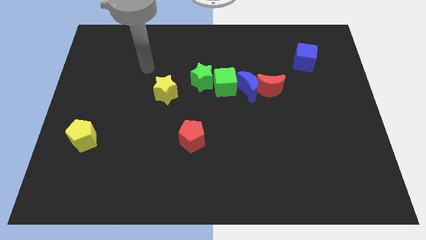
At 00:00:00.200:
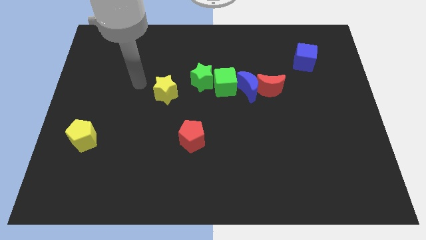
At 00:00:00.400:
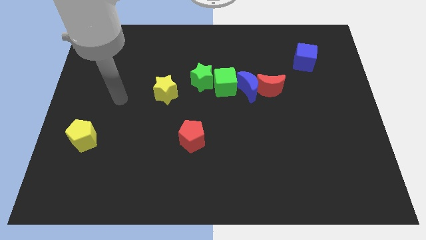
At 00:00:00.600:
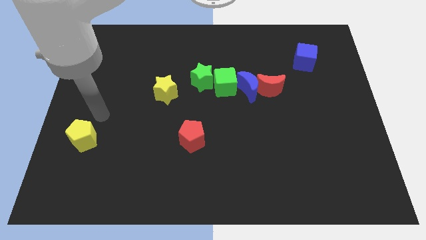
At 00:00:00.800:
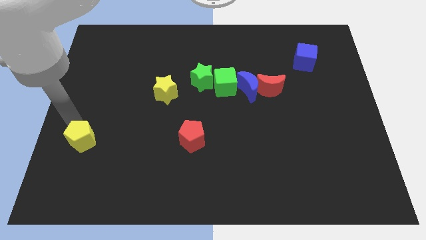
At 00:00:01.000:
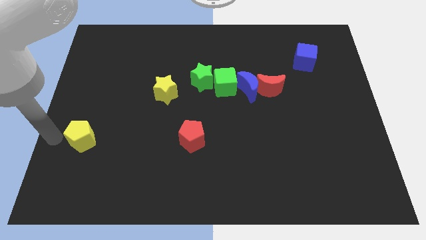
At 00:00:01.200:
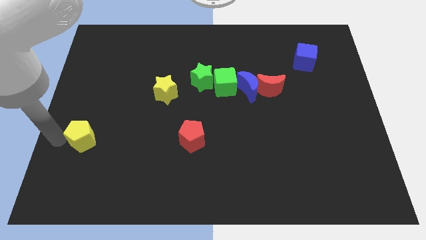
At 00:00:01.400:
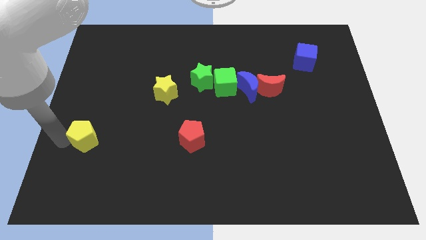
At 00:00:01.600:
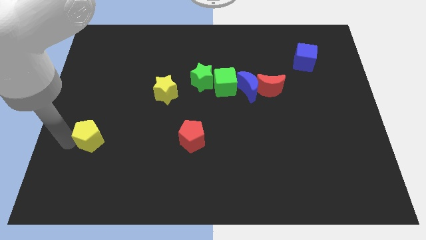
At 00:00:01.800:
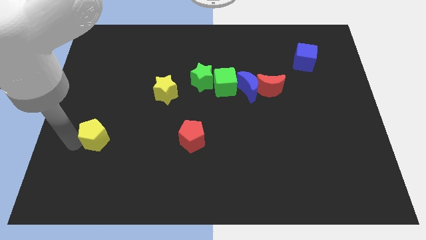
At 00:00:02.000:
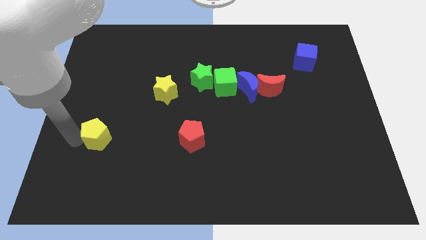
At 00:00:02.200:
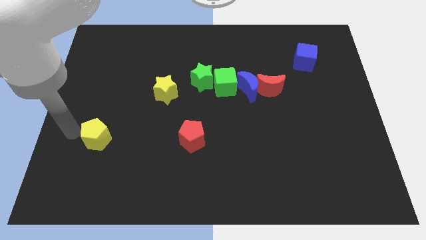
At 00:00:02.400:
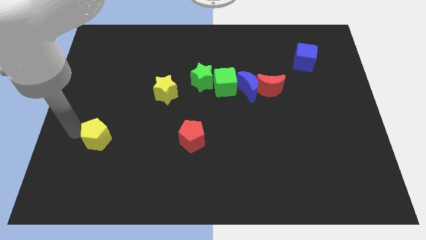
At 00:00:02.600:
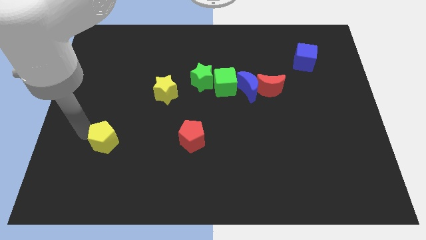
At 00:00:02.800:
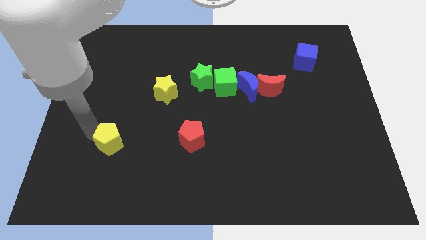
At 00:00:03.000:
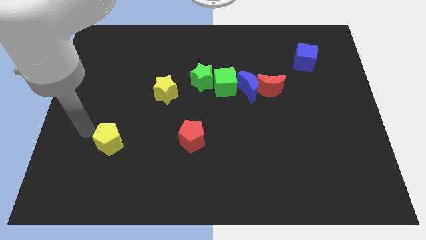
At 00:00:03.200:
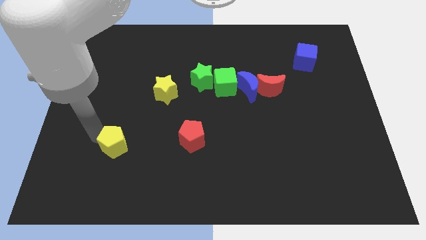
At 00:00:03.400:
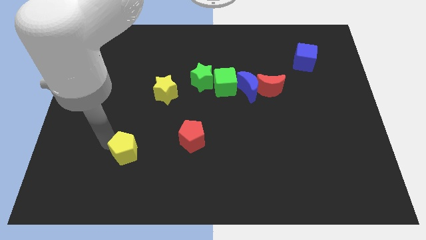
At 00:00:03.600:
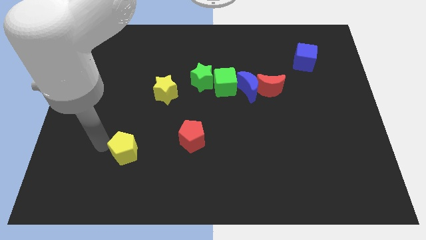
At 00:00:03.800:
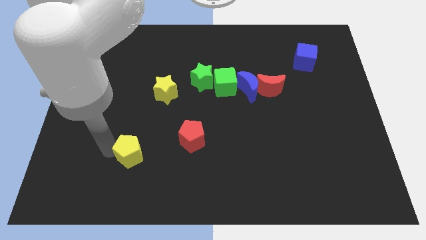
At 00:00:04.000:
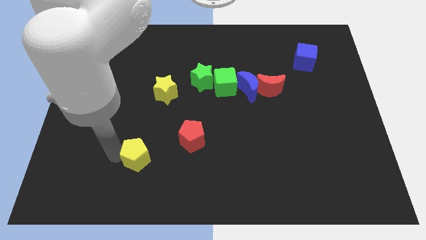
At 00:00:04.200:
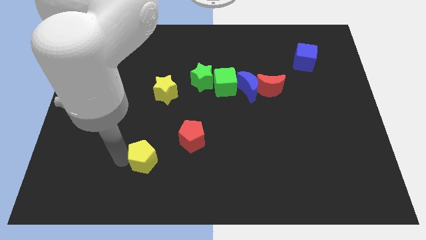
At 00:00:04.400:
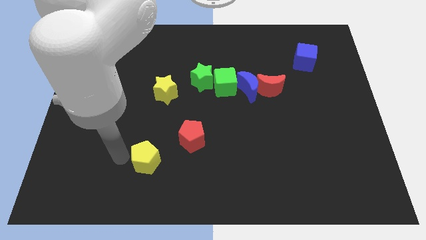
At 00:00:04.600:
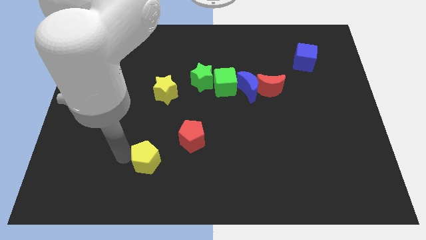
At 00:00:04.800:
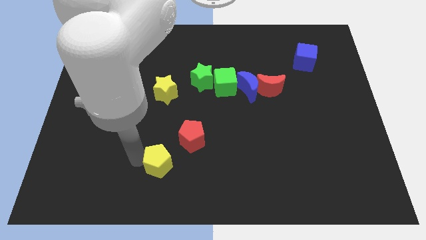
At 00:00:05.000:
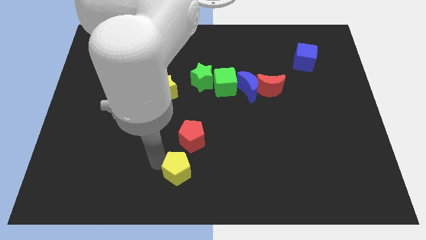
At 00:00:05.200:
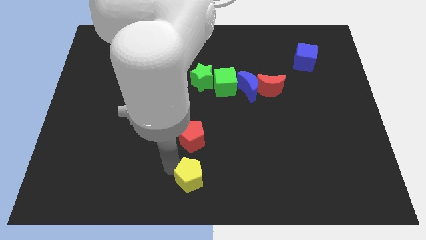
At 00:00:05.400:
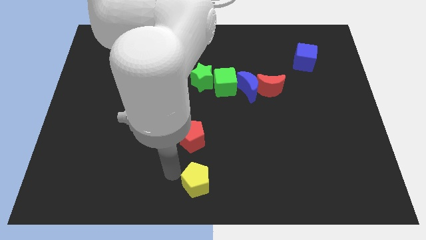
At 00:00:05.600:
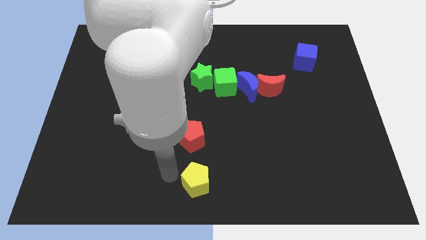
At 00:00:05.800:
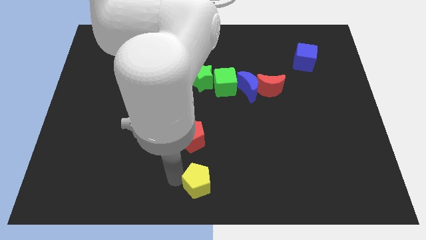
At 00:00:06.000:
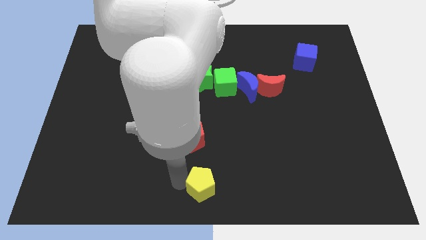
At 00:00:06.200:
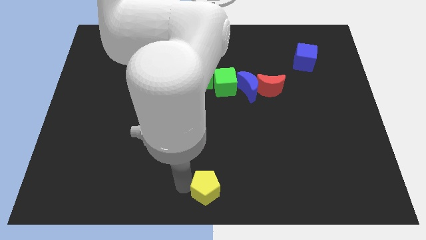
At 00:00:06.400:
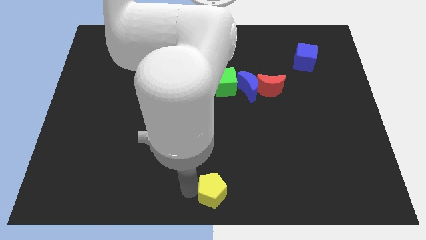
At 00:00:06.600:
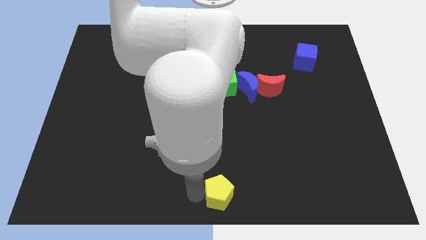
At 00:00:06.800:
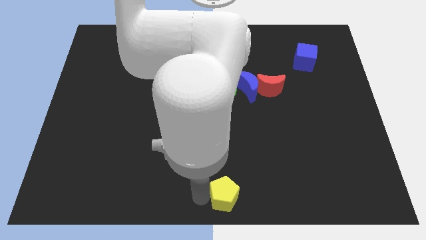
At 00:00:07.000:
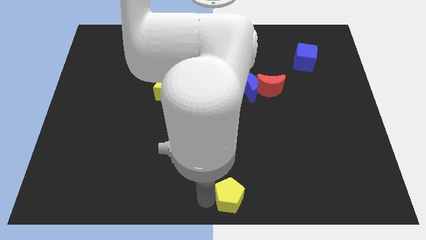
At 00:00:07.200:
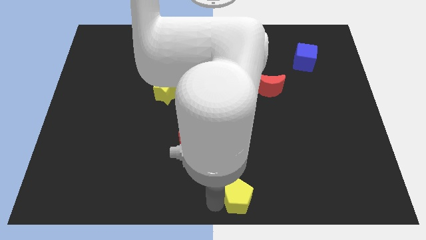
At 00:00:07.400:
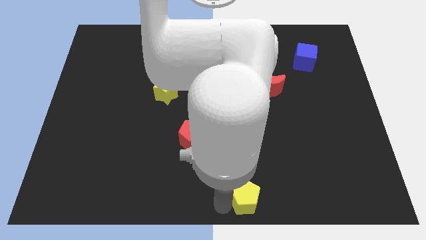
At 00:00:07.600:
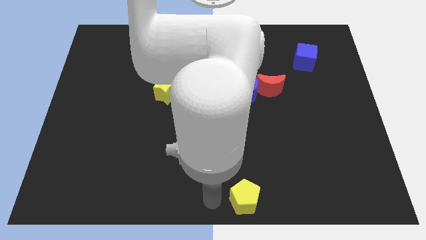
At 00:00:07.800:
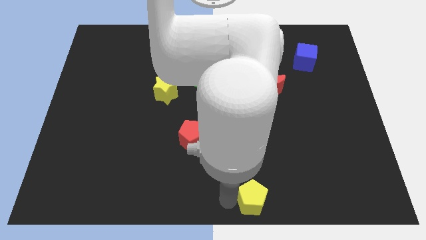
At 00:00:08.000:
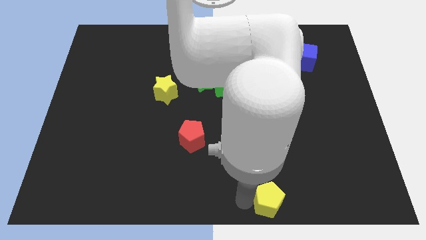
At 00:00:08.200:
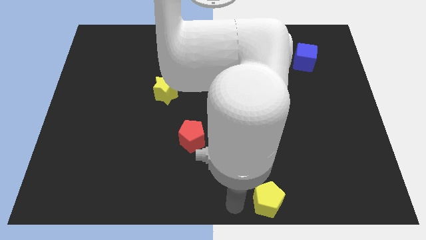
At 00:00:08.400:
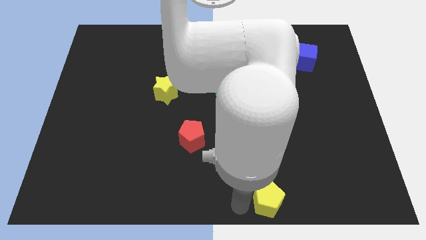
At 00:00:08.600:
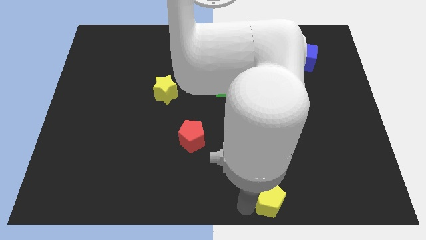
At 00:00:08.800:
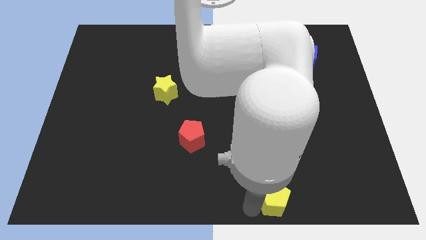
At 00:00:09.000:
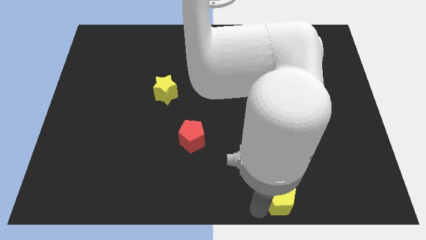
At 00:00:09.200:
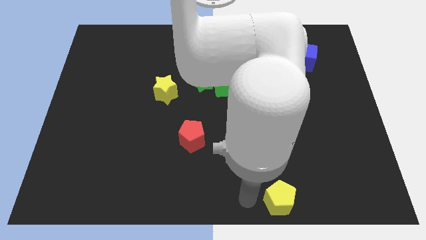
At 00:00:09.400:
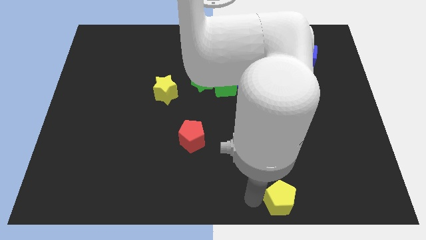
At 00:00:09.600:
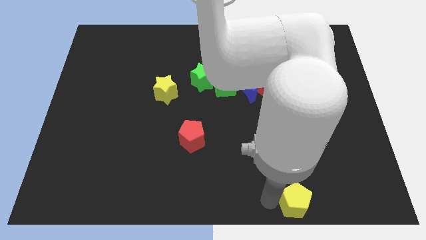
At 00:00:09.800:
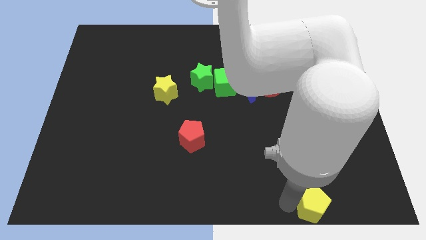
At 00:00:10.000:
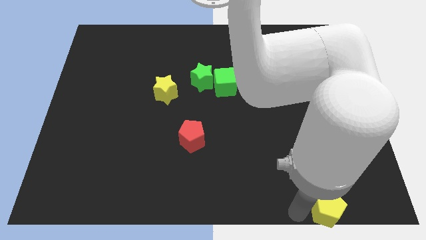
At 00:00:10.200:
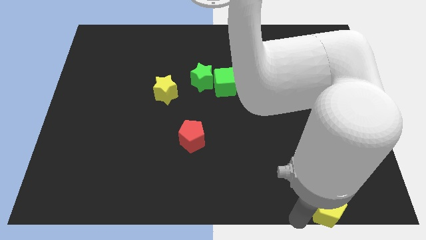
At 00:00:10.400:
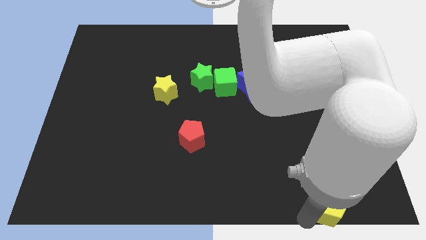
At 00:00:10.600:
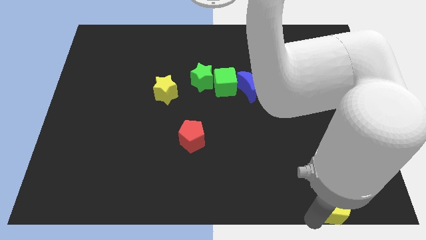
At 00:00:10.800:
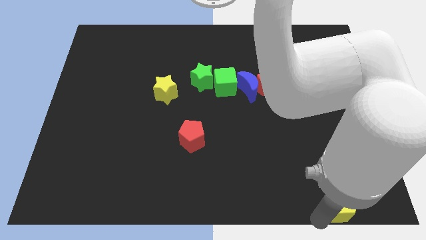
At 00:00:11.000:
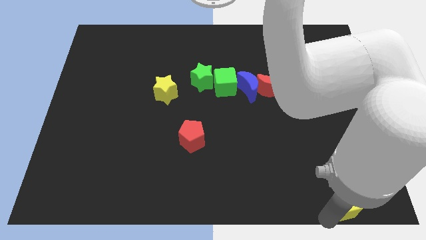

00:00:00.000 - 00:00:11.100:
push the yellow pentagon to the bottom right of the board

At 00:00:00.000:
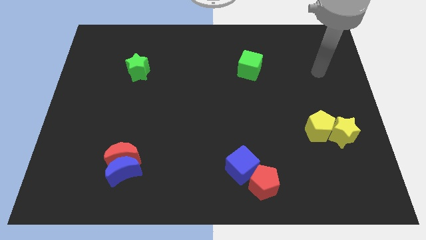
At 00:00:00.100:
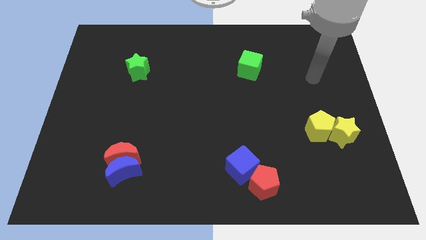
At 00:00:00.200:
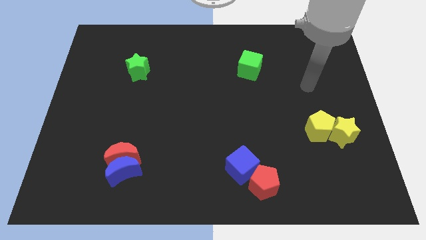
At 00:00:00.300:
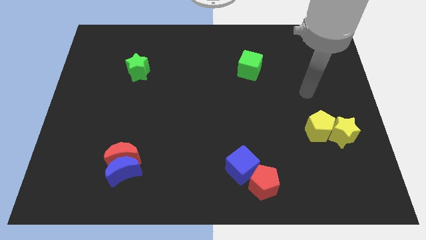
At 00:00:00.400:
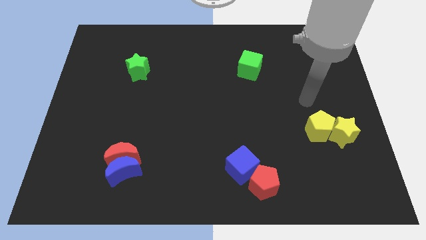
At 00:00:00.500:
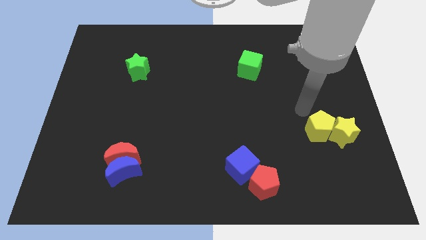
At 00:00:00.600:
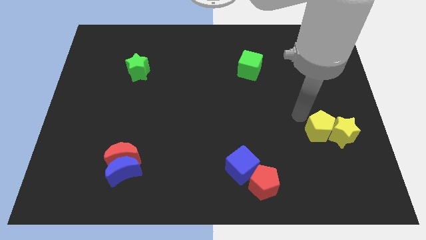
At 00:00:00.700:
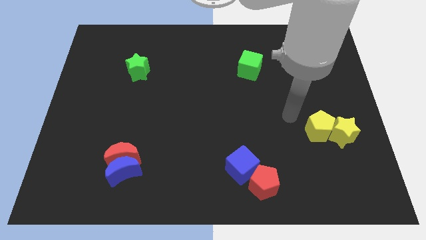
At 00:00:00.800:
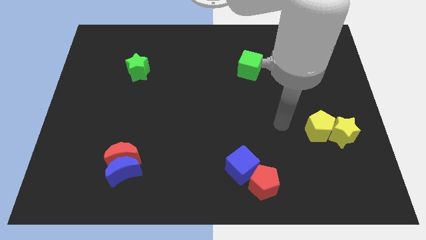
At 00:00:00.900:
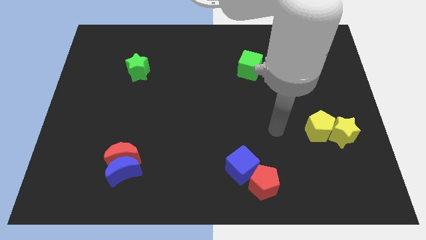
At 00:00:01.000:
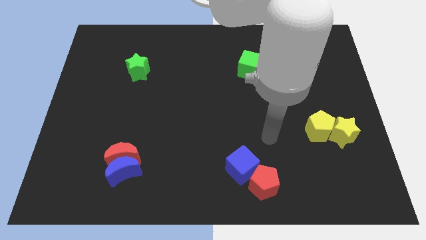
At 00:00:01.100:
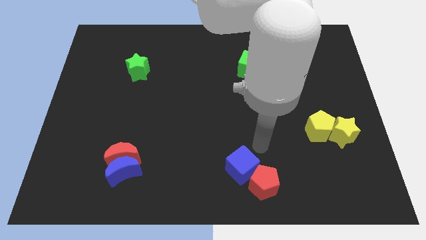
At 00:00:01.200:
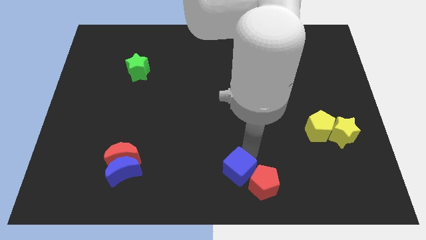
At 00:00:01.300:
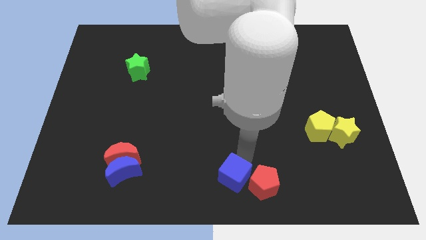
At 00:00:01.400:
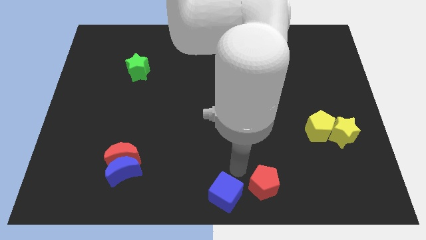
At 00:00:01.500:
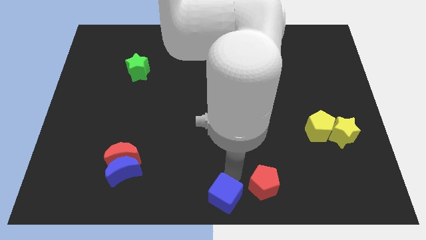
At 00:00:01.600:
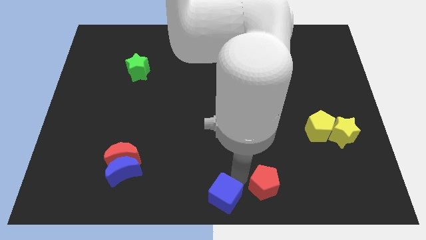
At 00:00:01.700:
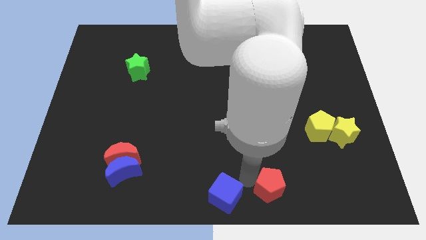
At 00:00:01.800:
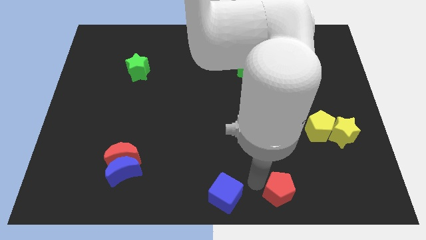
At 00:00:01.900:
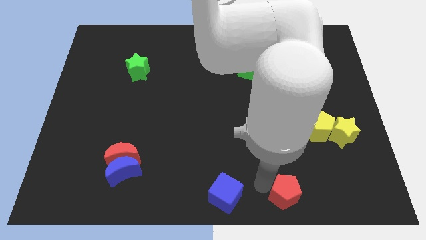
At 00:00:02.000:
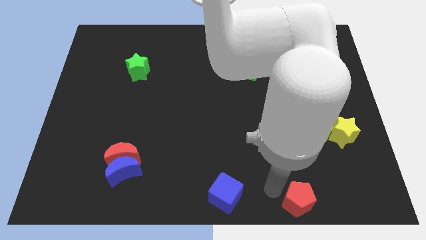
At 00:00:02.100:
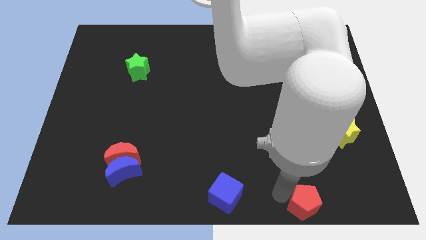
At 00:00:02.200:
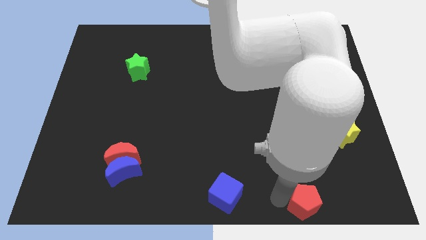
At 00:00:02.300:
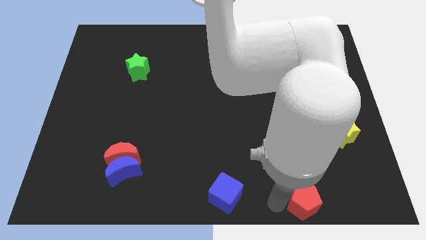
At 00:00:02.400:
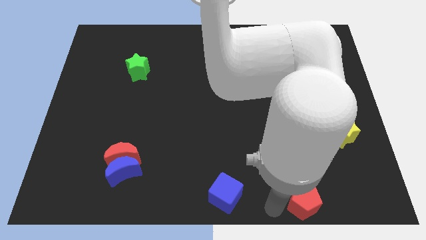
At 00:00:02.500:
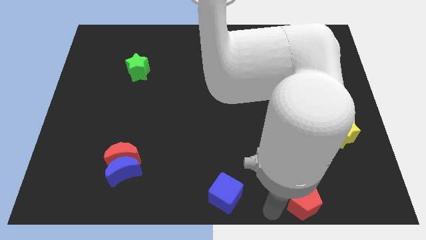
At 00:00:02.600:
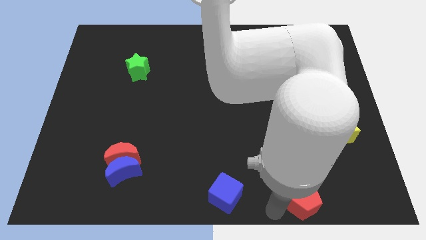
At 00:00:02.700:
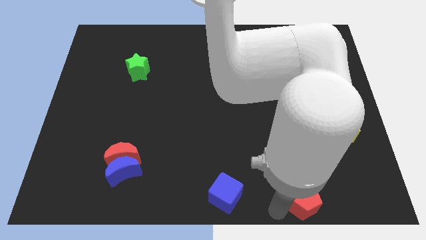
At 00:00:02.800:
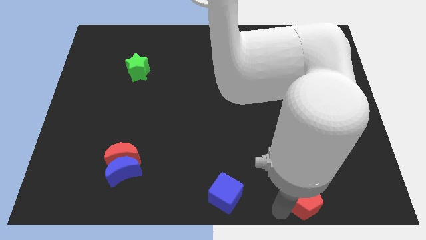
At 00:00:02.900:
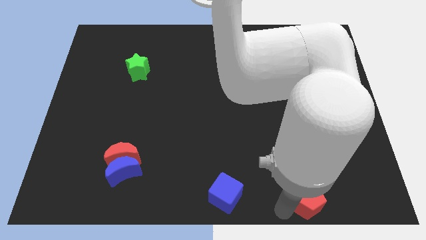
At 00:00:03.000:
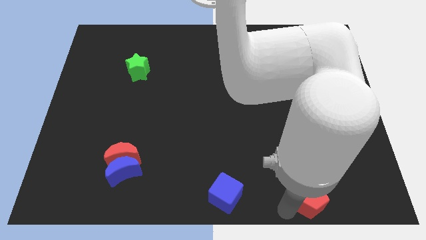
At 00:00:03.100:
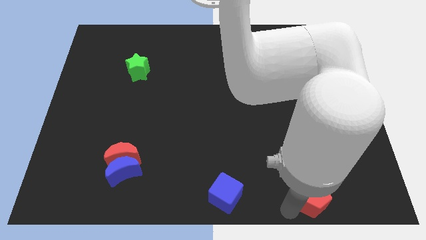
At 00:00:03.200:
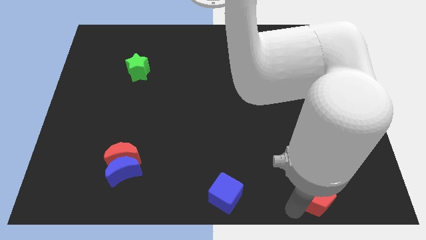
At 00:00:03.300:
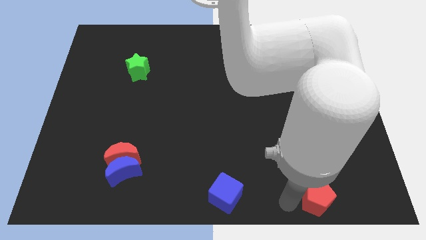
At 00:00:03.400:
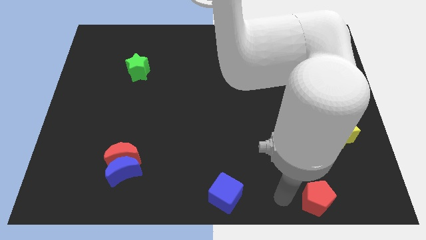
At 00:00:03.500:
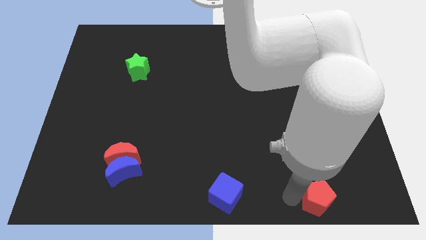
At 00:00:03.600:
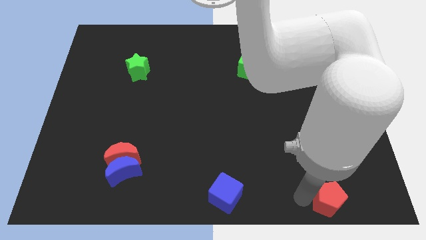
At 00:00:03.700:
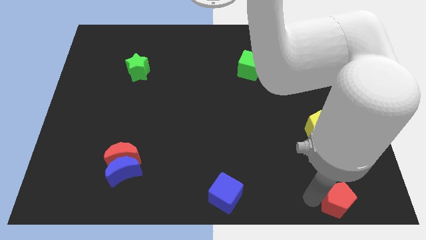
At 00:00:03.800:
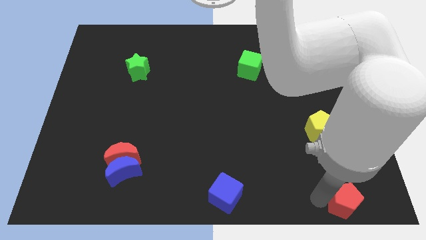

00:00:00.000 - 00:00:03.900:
push the red pentagon to the bottom right
